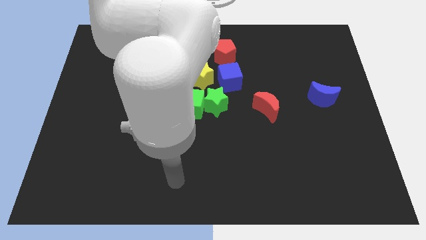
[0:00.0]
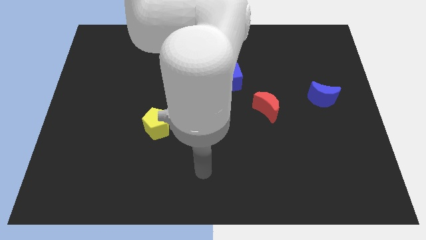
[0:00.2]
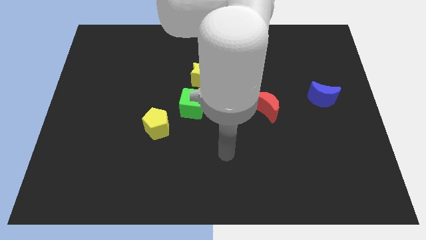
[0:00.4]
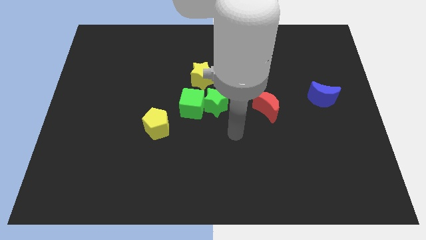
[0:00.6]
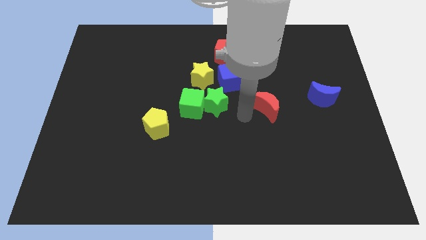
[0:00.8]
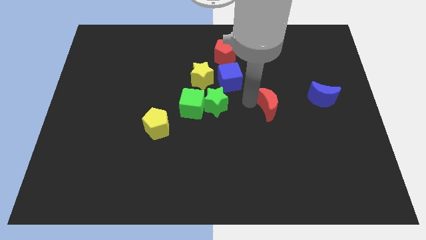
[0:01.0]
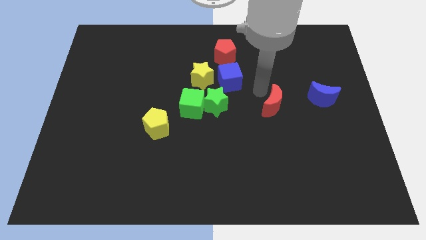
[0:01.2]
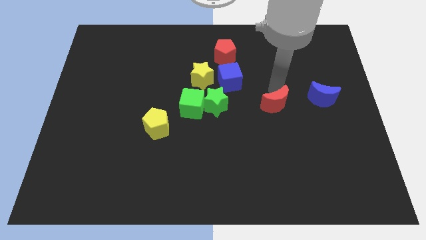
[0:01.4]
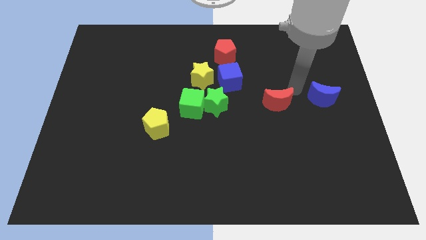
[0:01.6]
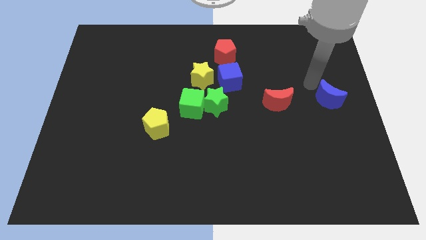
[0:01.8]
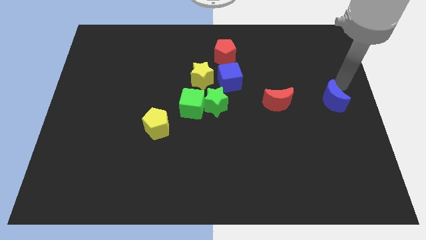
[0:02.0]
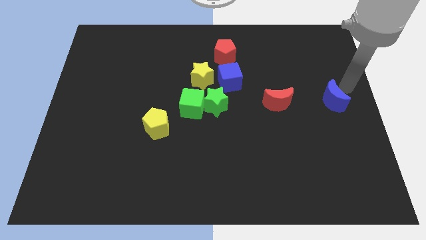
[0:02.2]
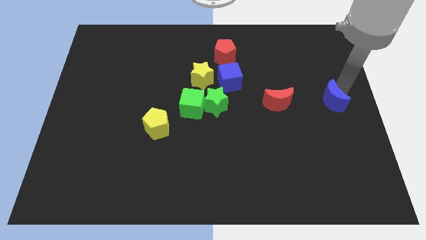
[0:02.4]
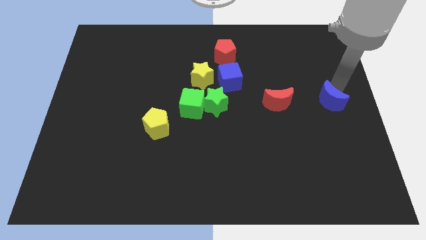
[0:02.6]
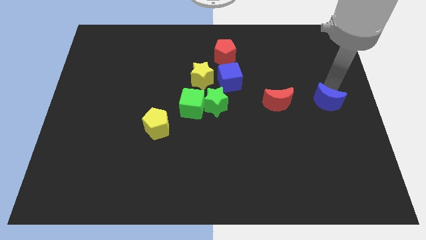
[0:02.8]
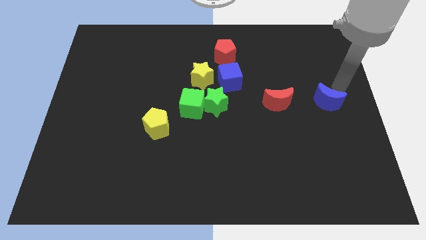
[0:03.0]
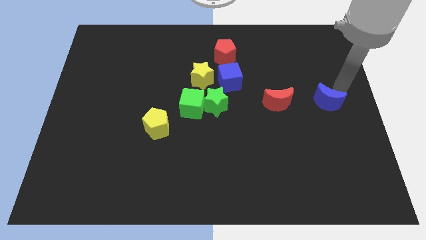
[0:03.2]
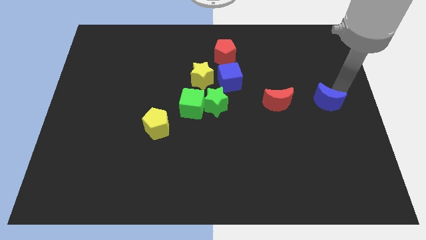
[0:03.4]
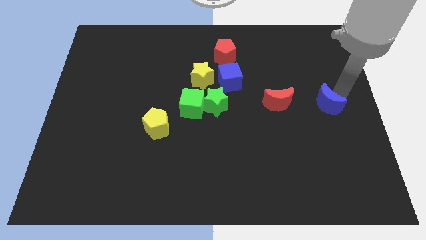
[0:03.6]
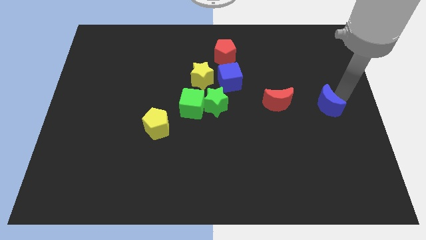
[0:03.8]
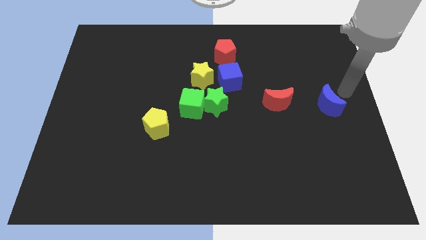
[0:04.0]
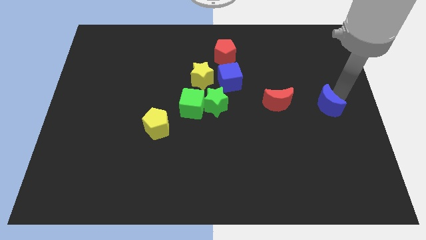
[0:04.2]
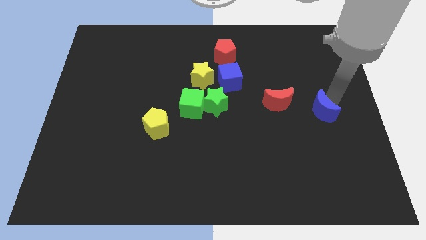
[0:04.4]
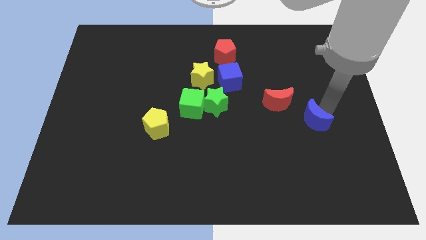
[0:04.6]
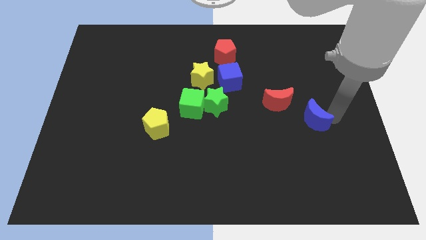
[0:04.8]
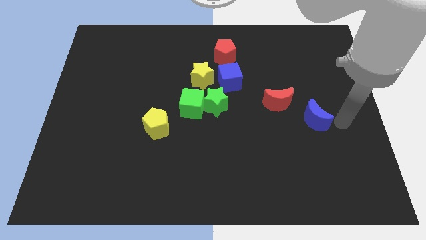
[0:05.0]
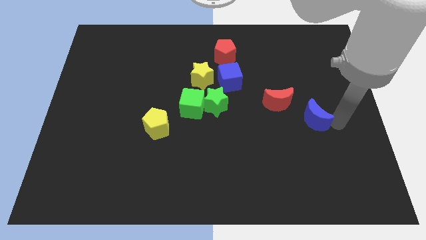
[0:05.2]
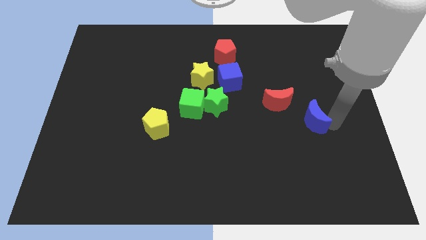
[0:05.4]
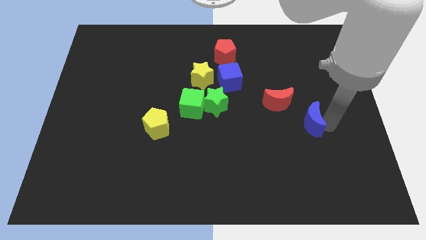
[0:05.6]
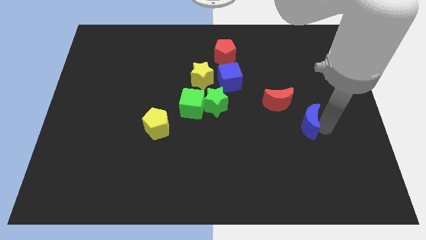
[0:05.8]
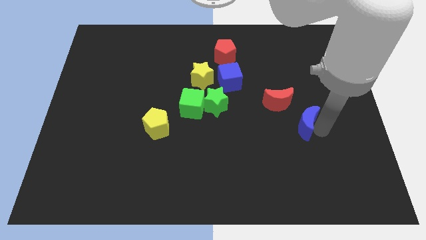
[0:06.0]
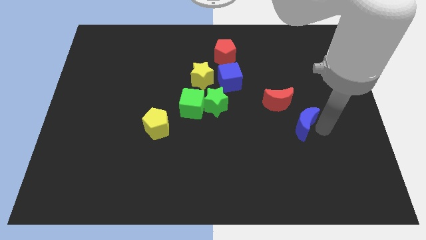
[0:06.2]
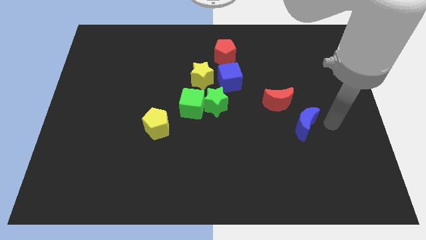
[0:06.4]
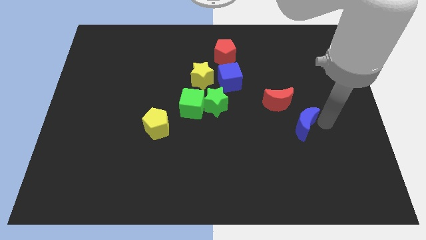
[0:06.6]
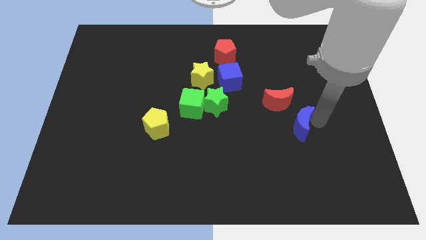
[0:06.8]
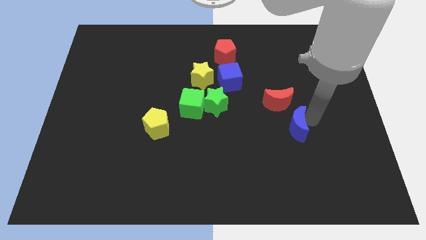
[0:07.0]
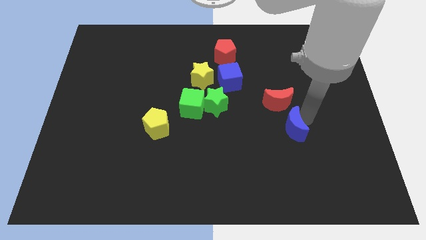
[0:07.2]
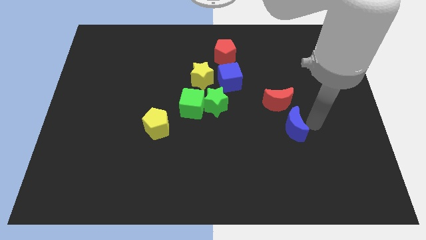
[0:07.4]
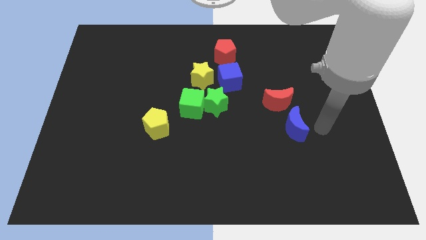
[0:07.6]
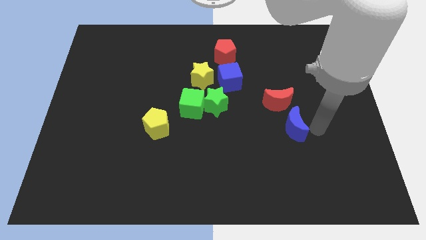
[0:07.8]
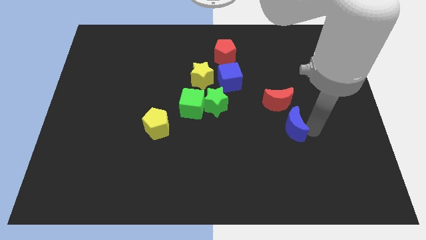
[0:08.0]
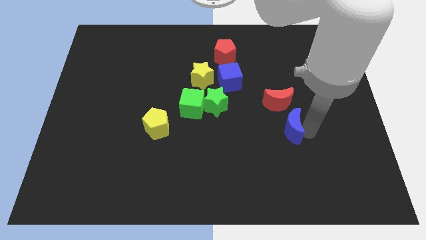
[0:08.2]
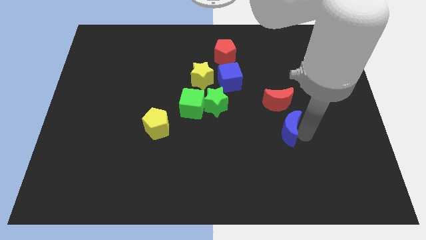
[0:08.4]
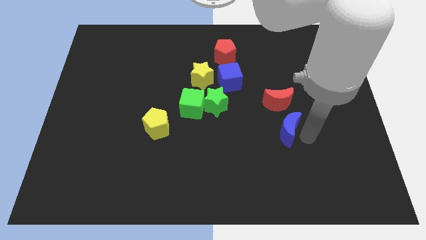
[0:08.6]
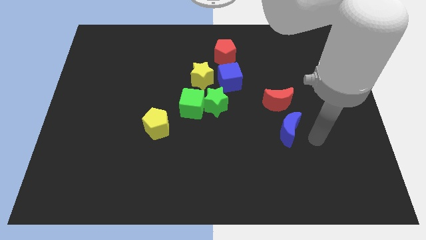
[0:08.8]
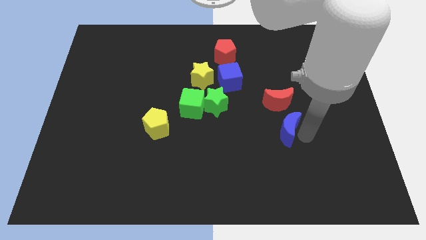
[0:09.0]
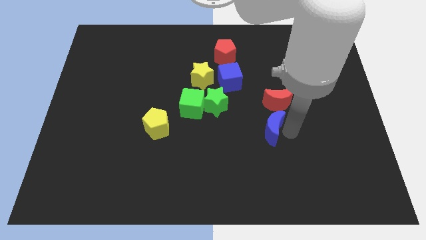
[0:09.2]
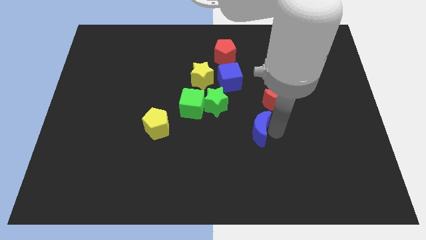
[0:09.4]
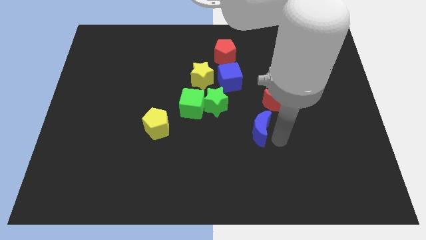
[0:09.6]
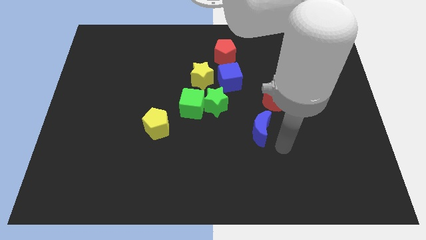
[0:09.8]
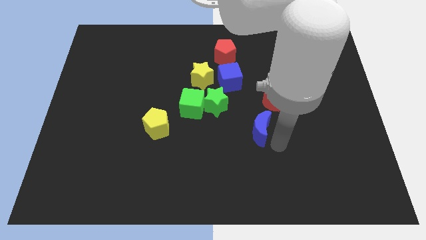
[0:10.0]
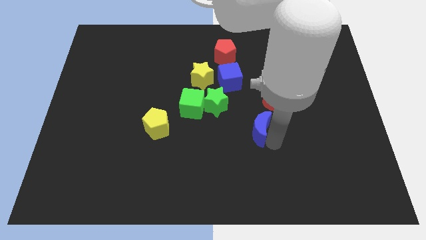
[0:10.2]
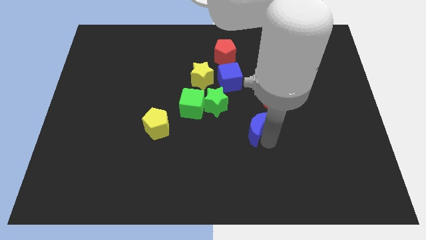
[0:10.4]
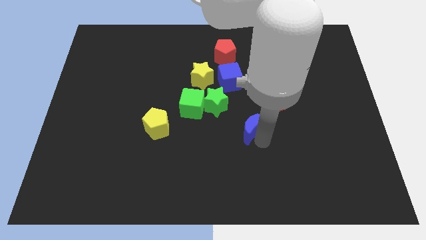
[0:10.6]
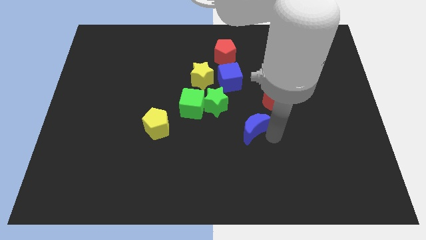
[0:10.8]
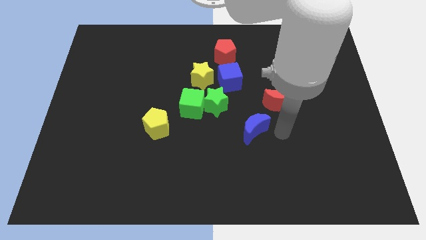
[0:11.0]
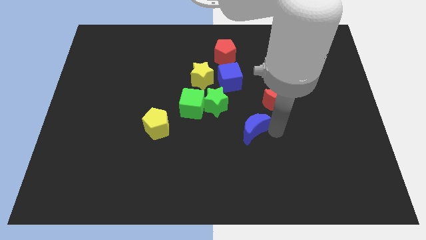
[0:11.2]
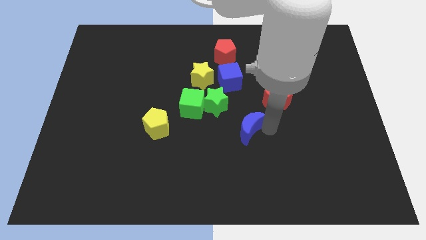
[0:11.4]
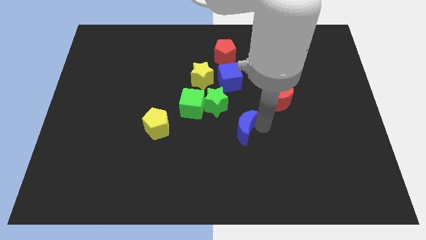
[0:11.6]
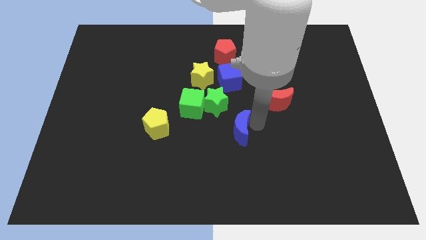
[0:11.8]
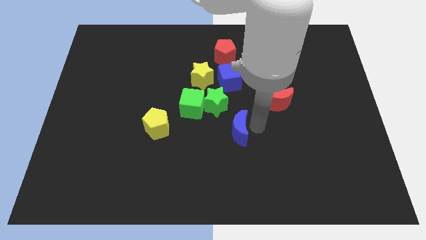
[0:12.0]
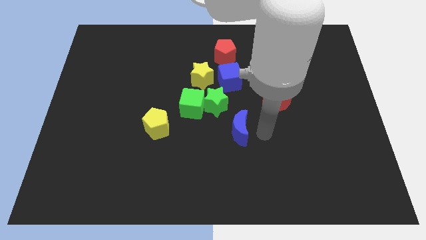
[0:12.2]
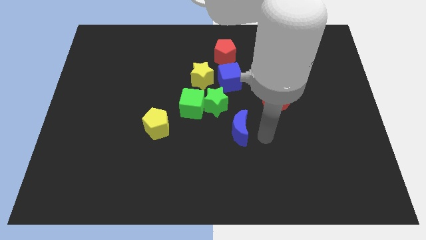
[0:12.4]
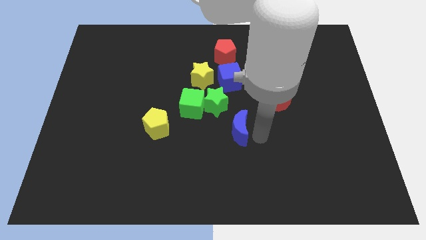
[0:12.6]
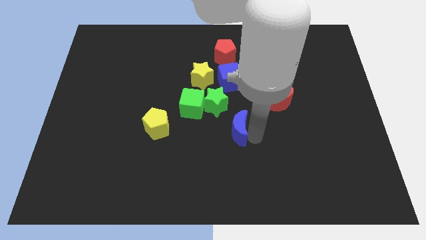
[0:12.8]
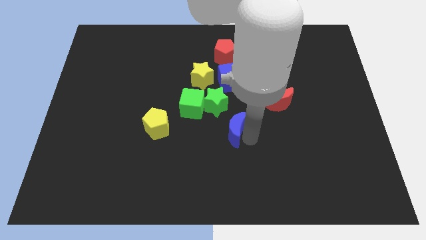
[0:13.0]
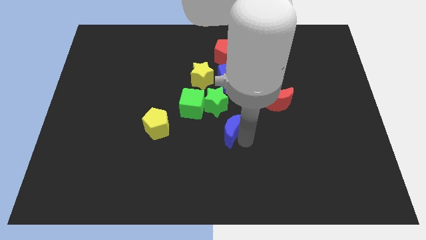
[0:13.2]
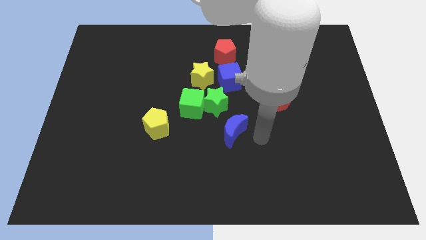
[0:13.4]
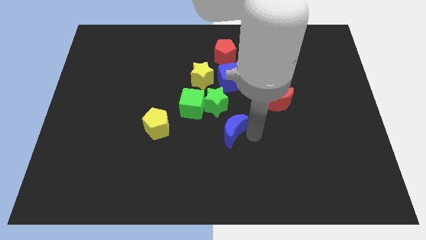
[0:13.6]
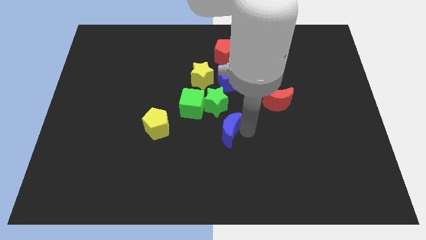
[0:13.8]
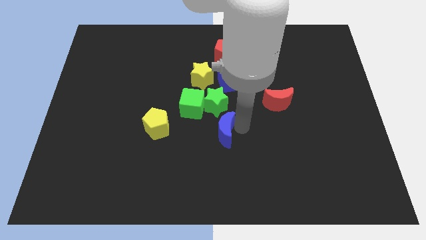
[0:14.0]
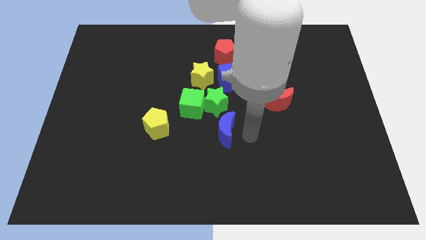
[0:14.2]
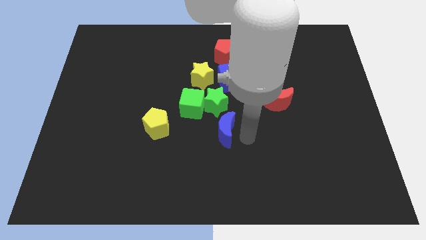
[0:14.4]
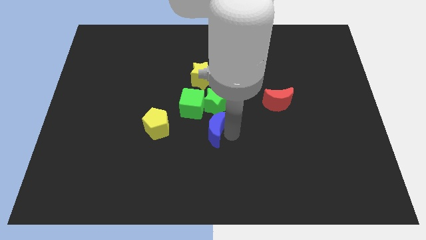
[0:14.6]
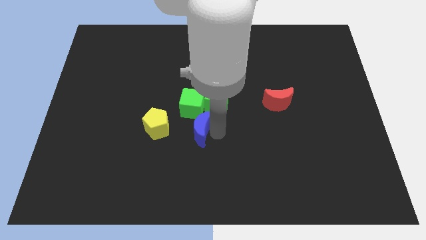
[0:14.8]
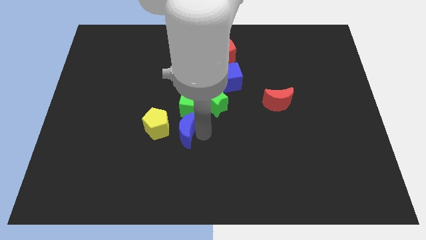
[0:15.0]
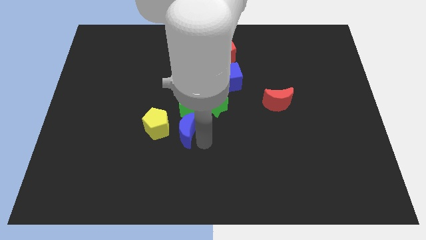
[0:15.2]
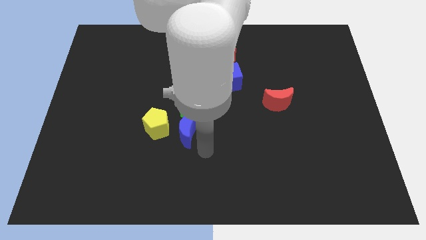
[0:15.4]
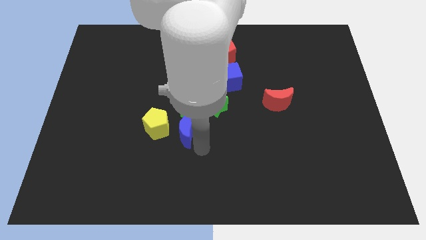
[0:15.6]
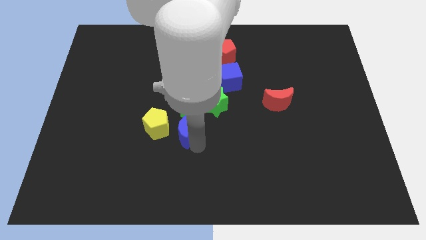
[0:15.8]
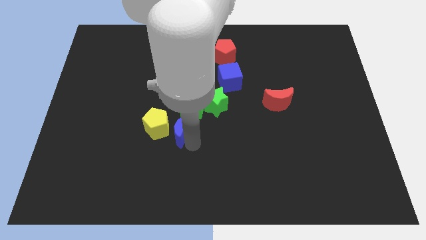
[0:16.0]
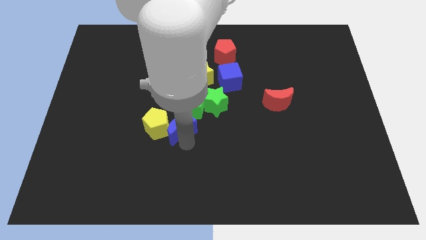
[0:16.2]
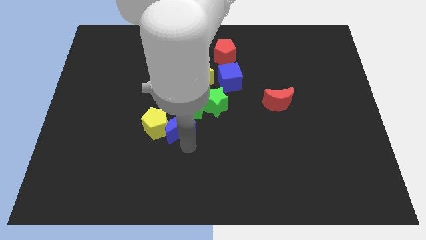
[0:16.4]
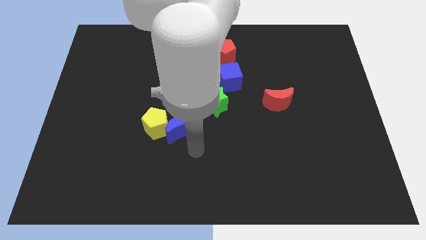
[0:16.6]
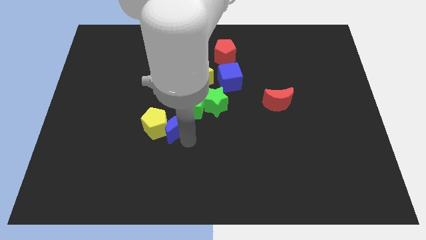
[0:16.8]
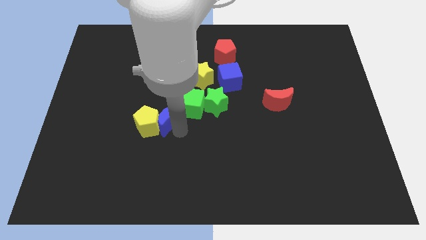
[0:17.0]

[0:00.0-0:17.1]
push the blue moon left of the green cube
